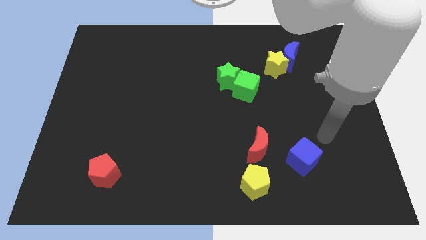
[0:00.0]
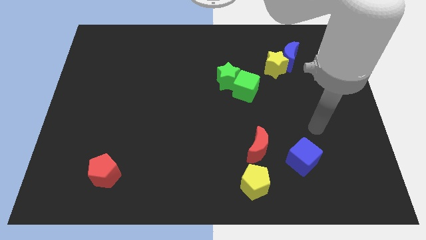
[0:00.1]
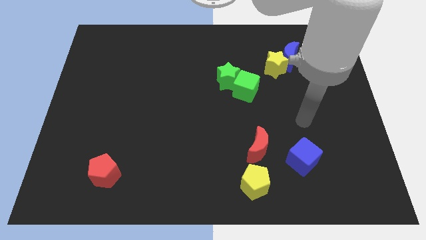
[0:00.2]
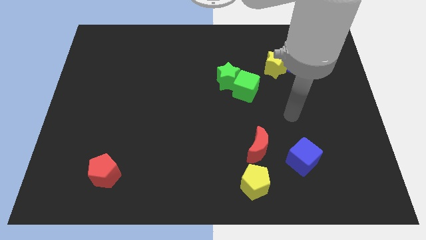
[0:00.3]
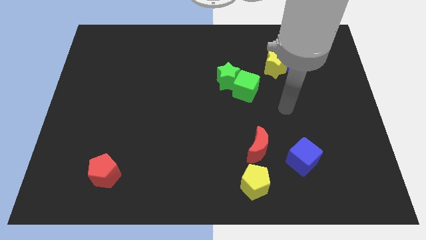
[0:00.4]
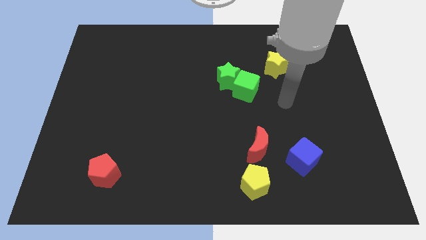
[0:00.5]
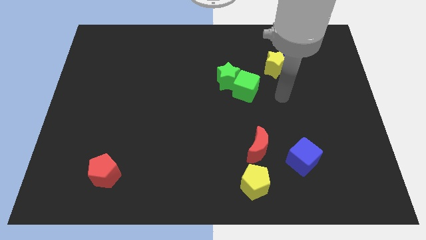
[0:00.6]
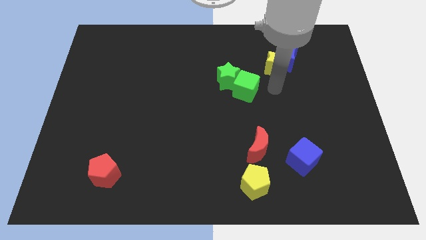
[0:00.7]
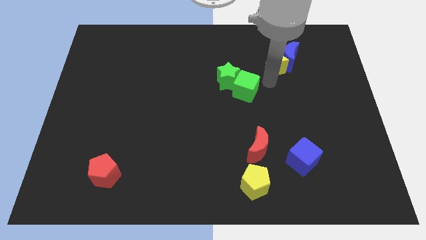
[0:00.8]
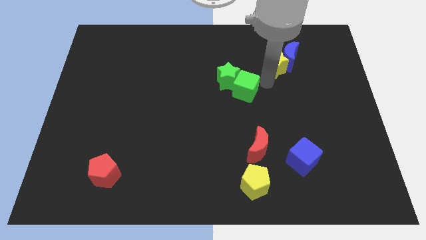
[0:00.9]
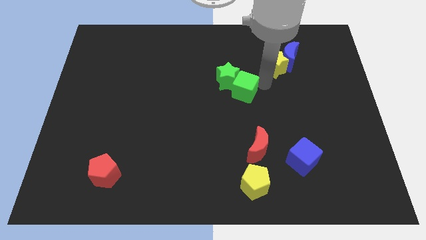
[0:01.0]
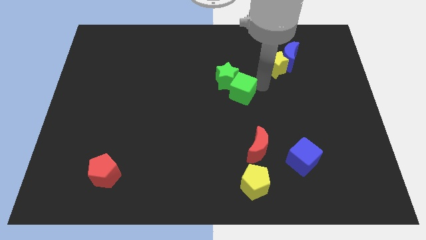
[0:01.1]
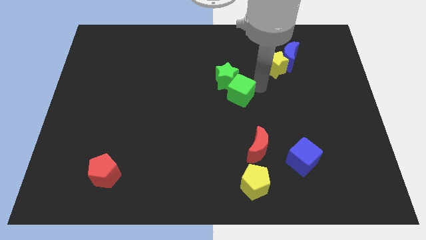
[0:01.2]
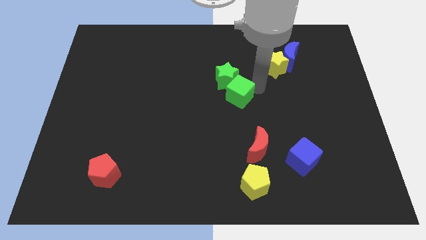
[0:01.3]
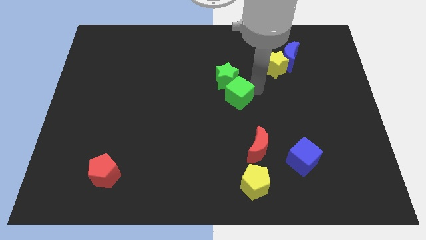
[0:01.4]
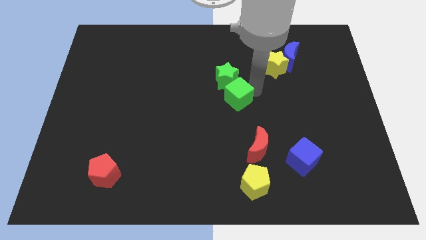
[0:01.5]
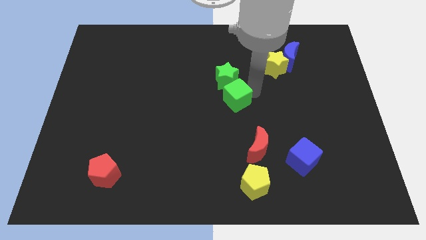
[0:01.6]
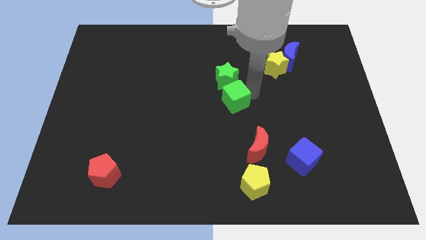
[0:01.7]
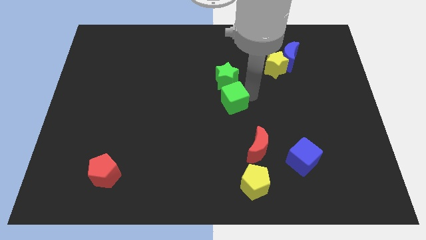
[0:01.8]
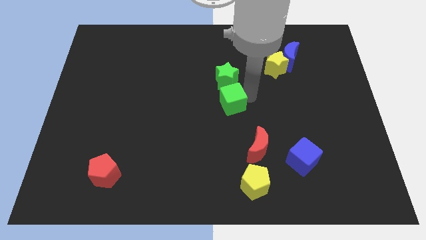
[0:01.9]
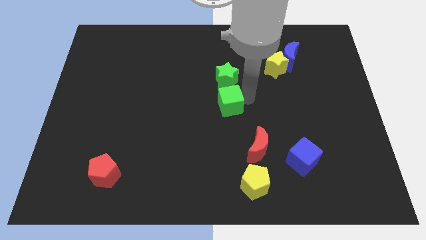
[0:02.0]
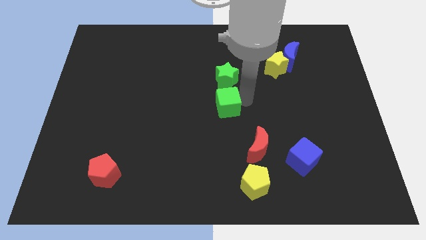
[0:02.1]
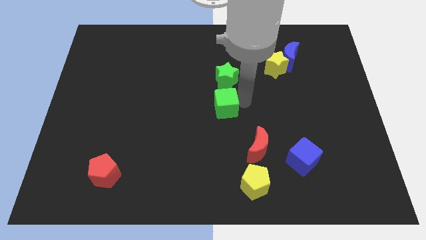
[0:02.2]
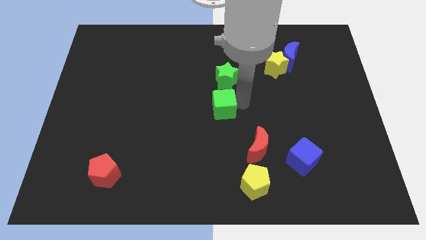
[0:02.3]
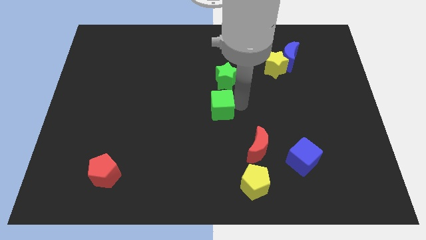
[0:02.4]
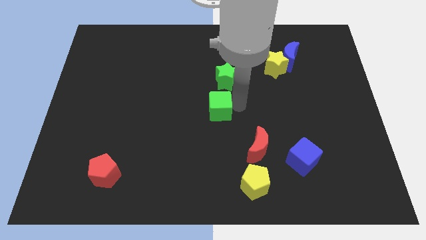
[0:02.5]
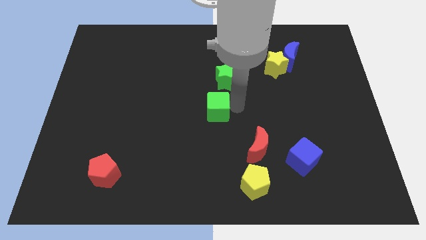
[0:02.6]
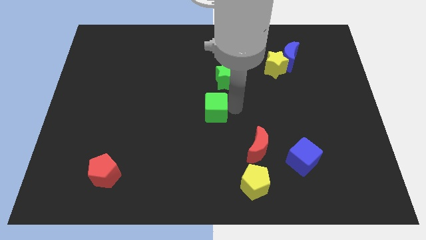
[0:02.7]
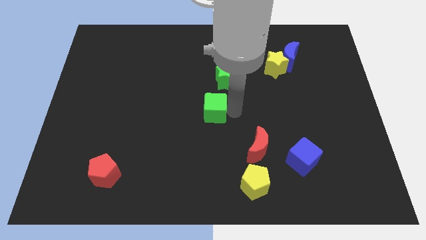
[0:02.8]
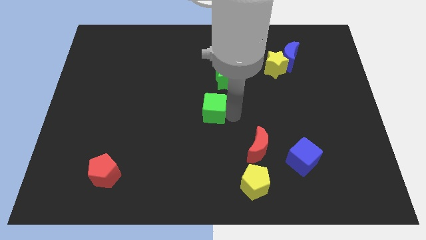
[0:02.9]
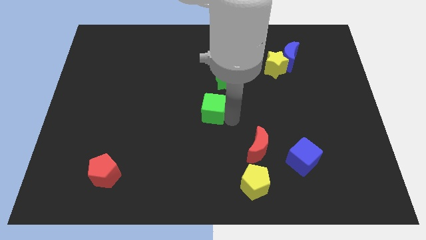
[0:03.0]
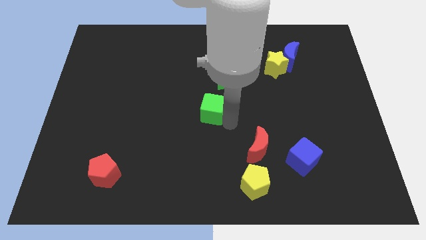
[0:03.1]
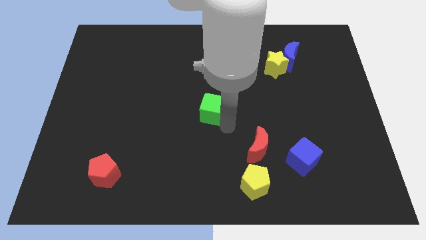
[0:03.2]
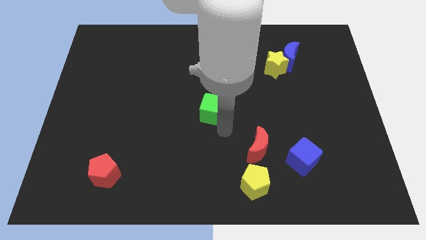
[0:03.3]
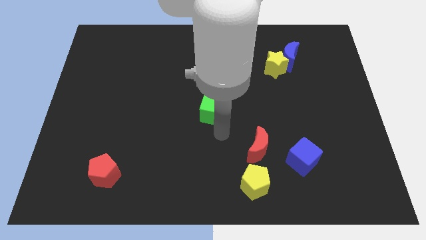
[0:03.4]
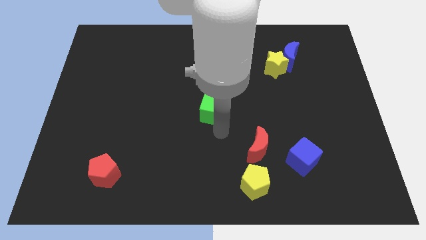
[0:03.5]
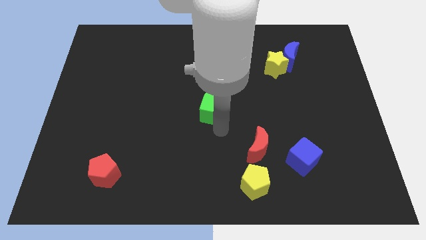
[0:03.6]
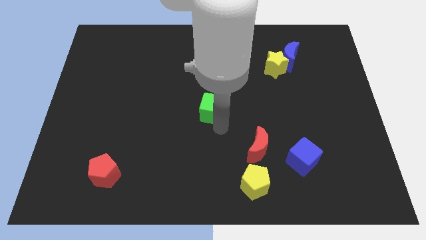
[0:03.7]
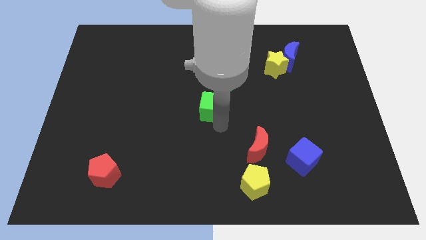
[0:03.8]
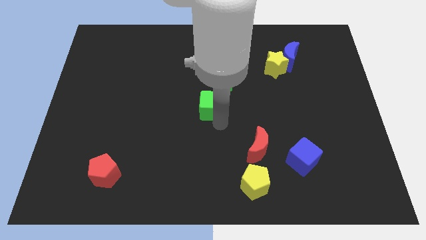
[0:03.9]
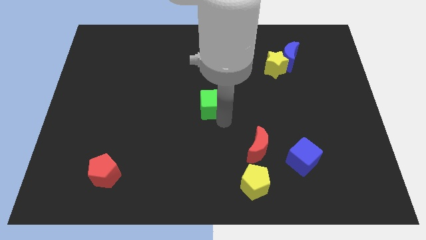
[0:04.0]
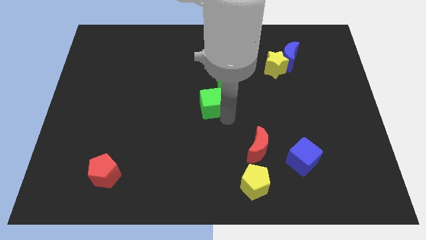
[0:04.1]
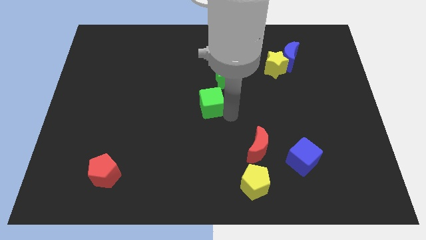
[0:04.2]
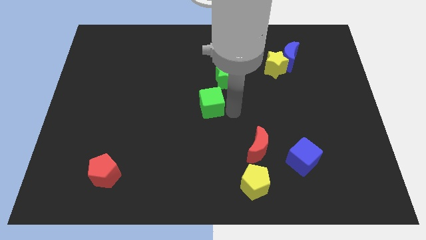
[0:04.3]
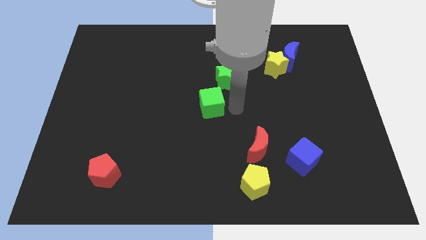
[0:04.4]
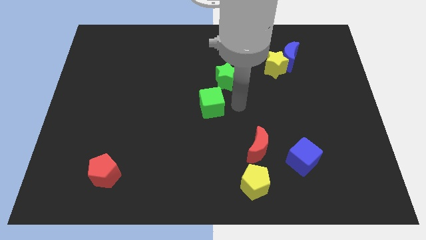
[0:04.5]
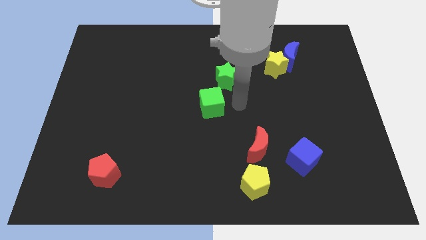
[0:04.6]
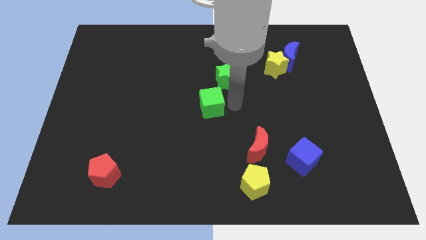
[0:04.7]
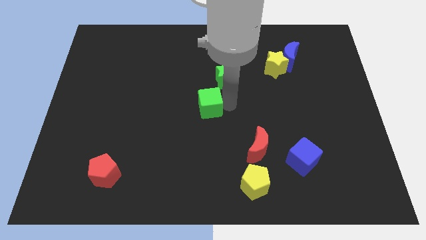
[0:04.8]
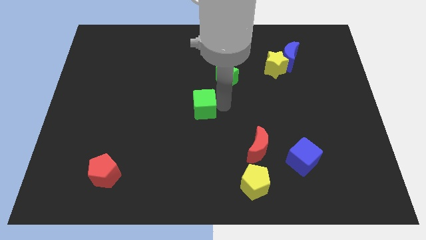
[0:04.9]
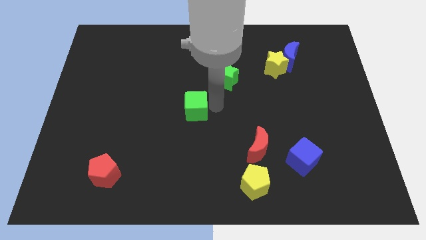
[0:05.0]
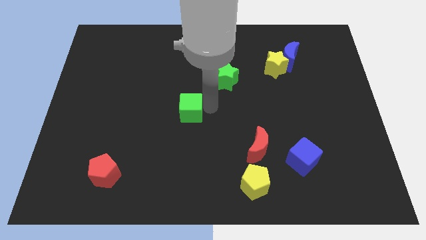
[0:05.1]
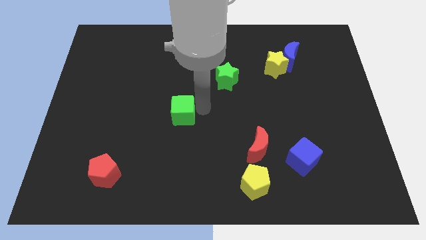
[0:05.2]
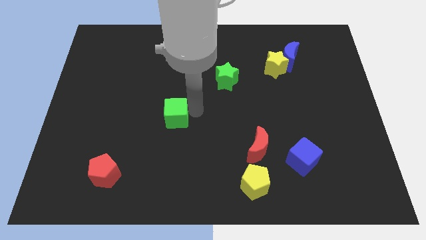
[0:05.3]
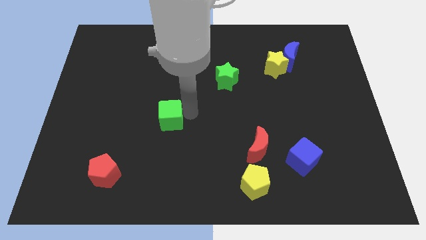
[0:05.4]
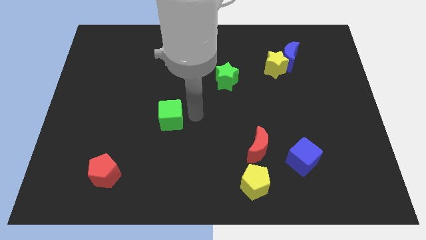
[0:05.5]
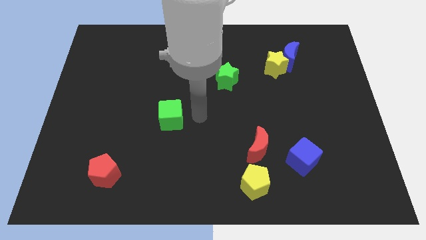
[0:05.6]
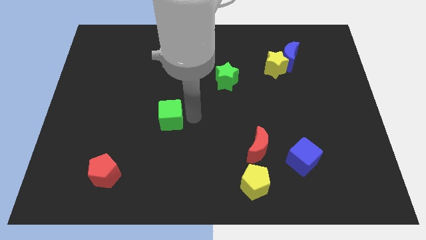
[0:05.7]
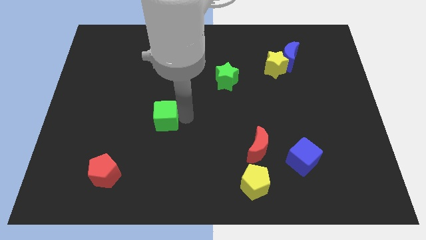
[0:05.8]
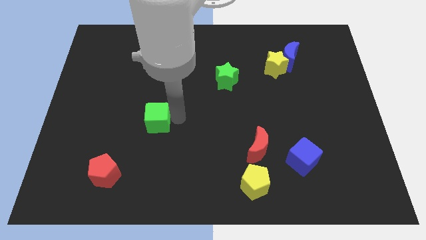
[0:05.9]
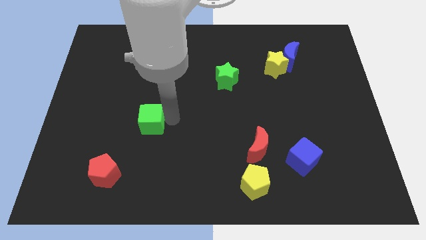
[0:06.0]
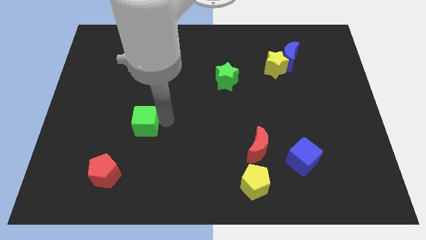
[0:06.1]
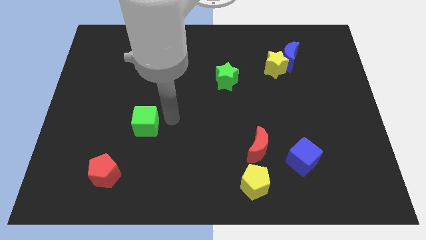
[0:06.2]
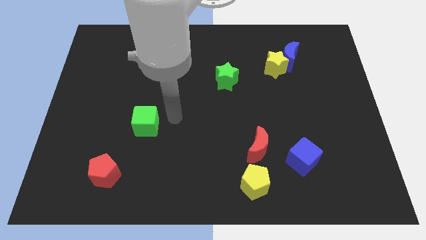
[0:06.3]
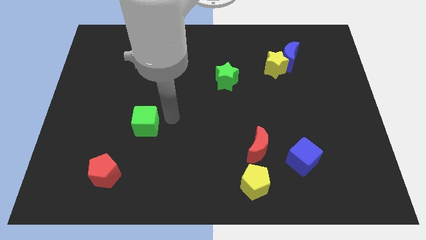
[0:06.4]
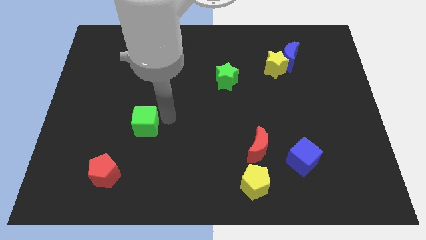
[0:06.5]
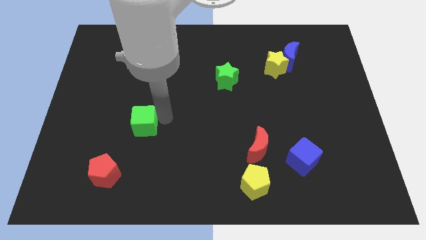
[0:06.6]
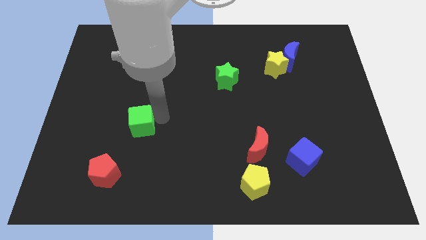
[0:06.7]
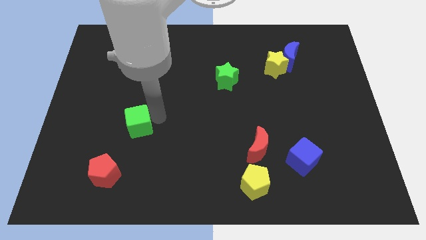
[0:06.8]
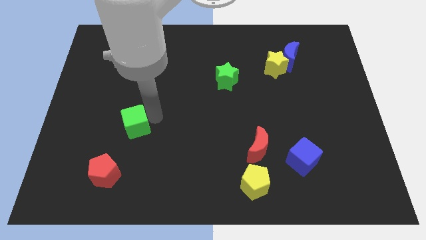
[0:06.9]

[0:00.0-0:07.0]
push the green cube to the top side of the red pentagon
